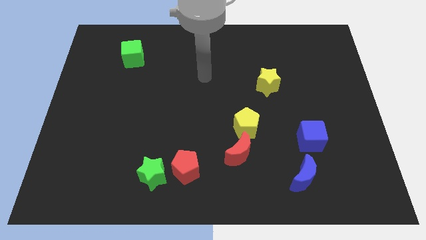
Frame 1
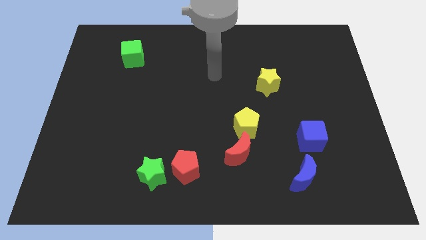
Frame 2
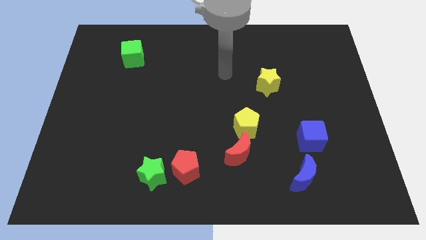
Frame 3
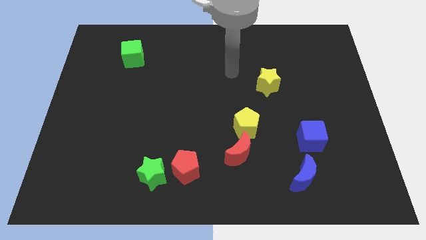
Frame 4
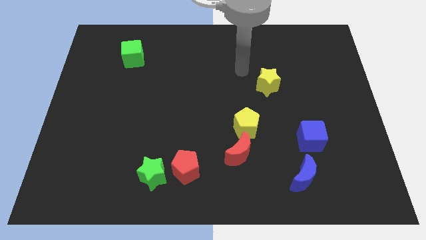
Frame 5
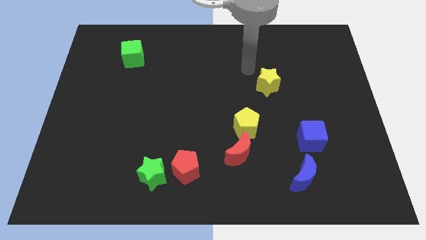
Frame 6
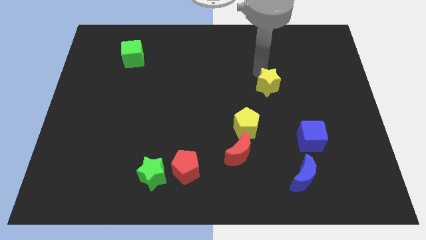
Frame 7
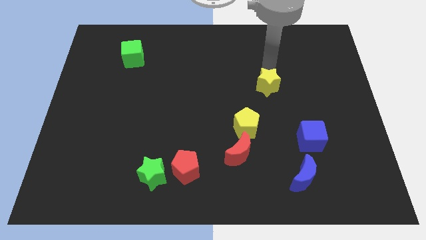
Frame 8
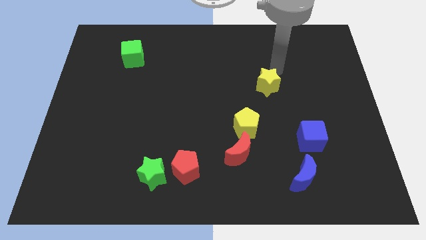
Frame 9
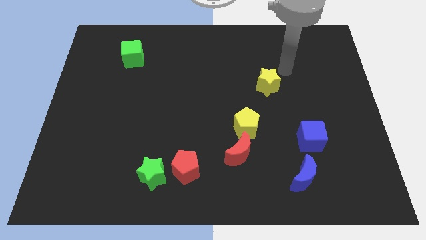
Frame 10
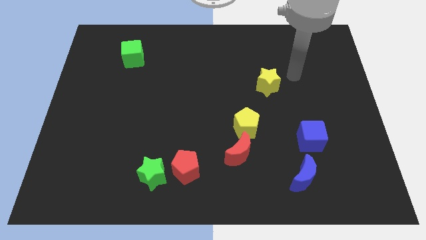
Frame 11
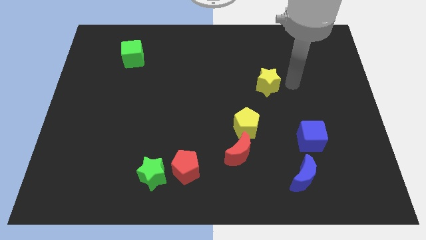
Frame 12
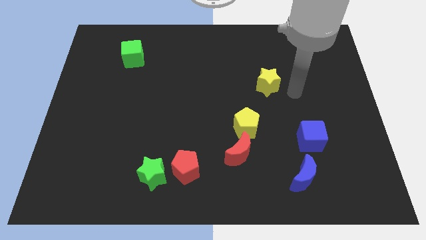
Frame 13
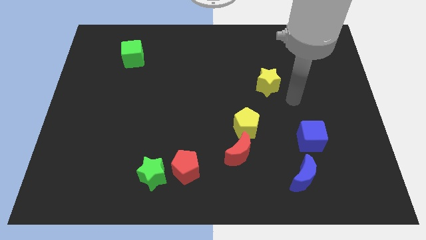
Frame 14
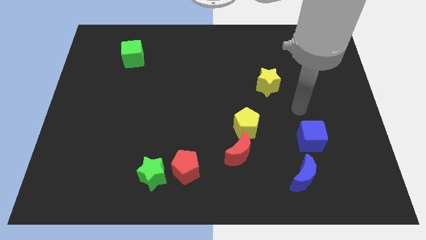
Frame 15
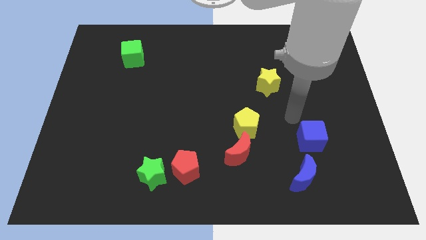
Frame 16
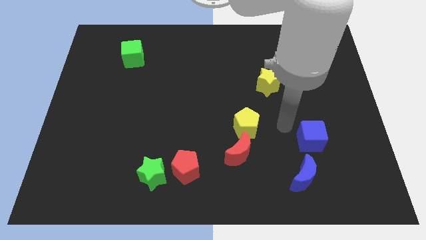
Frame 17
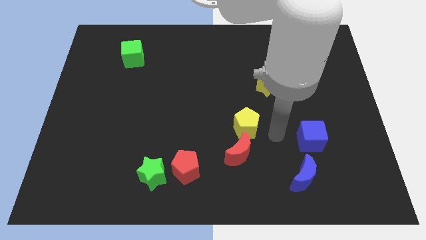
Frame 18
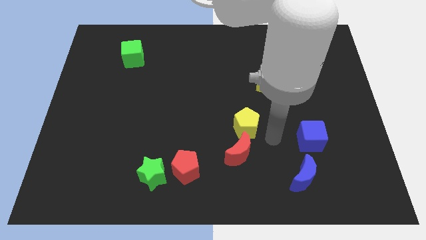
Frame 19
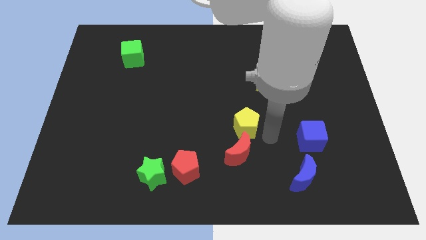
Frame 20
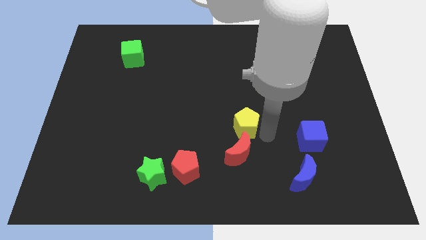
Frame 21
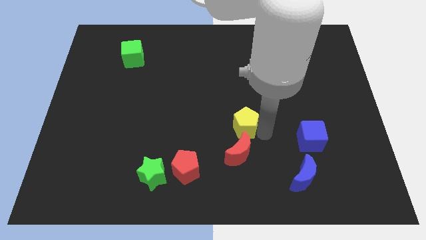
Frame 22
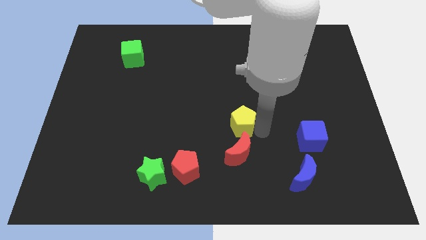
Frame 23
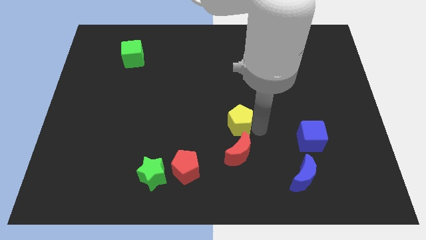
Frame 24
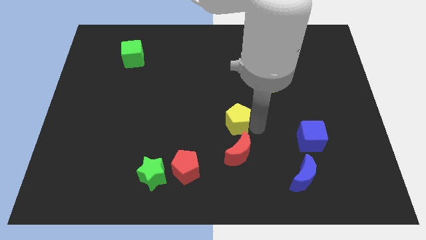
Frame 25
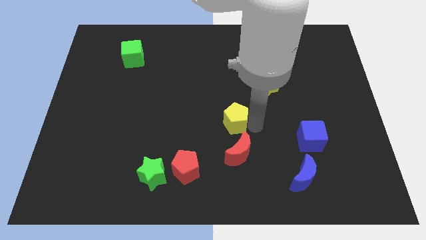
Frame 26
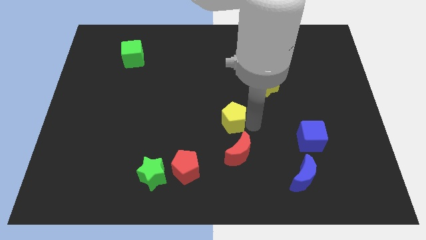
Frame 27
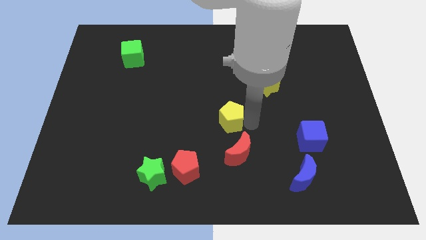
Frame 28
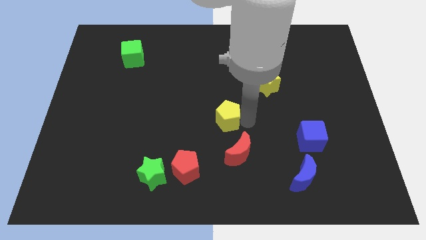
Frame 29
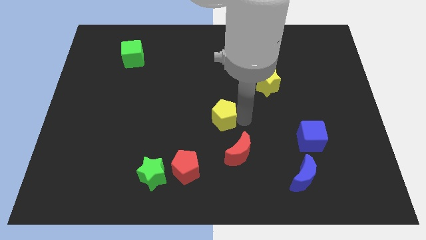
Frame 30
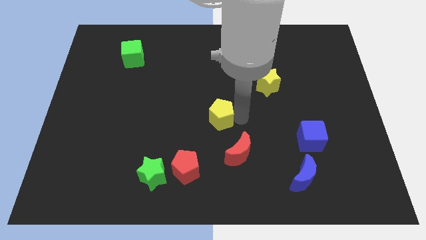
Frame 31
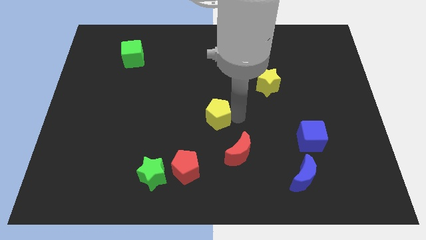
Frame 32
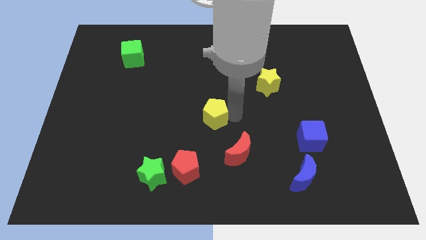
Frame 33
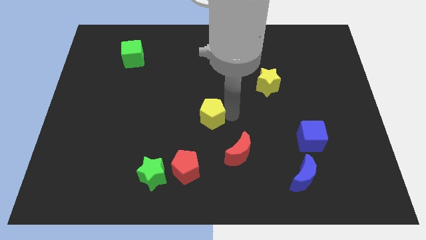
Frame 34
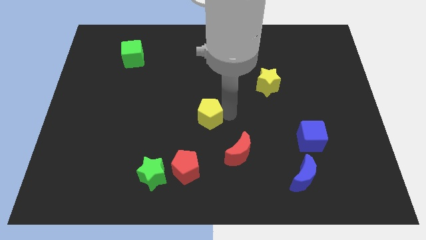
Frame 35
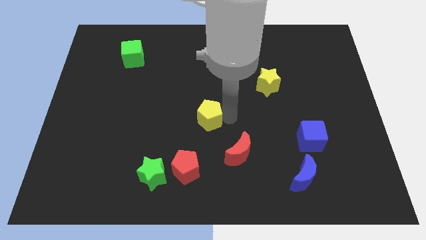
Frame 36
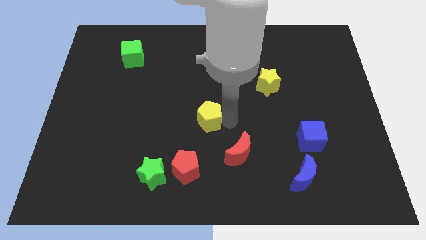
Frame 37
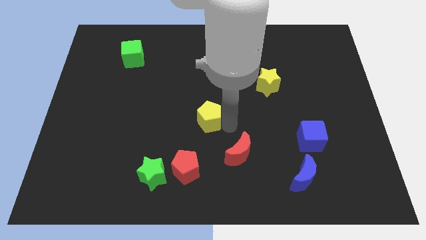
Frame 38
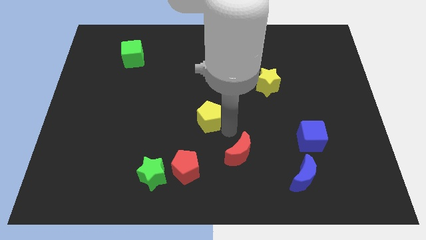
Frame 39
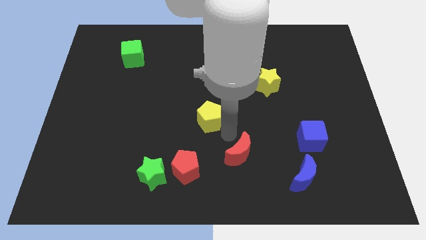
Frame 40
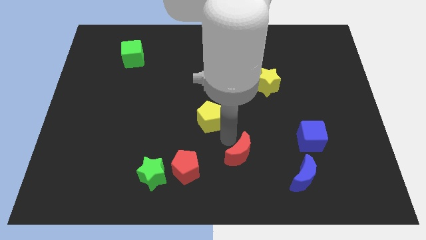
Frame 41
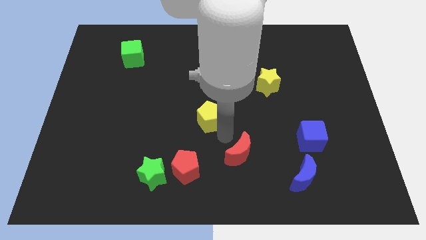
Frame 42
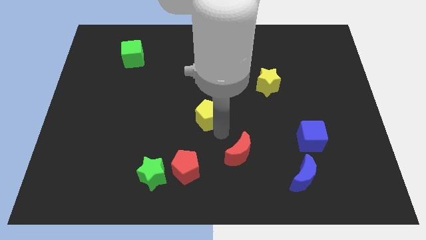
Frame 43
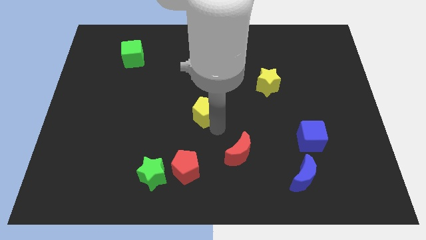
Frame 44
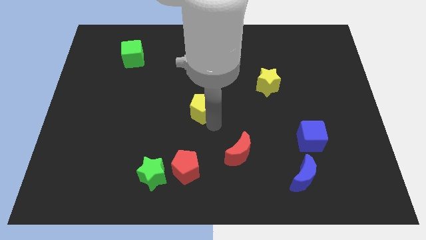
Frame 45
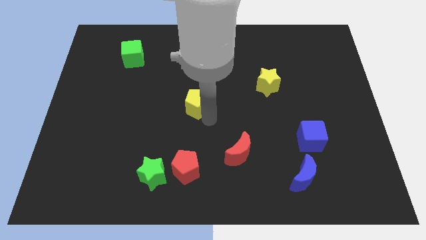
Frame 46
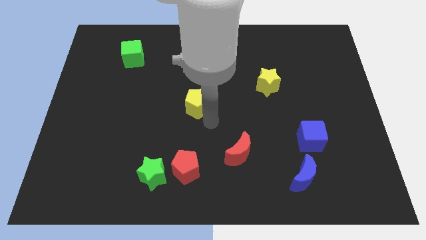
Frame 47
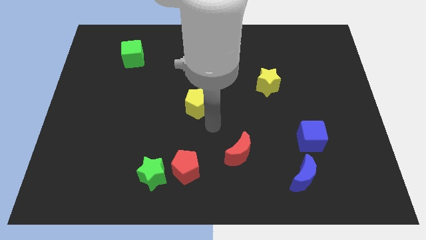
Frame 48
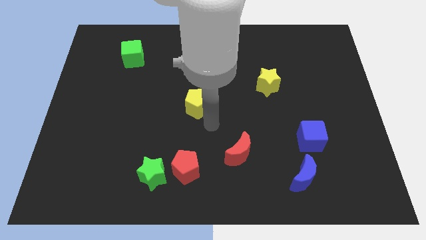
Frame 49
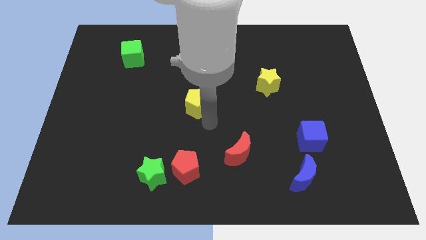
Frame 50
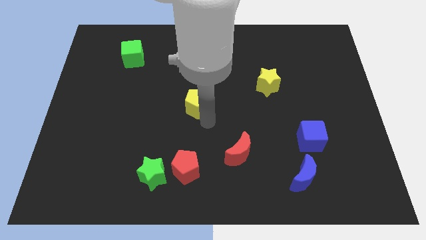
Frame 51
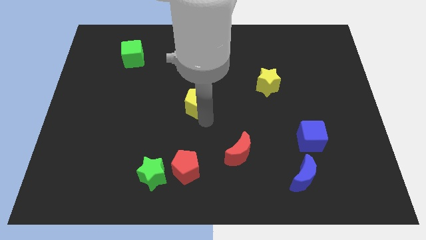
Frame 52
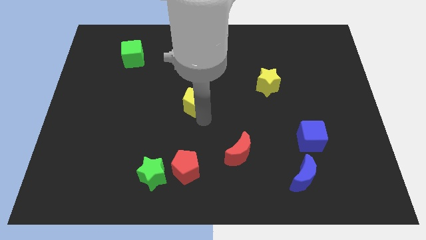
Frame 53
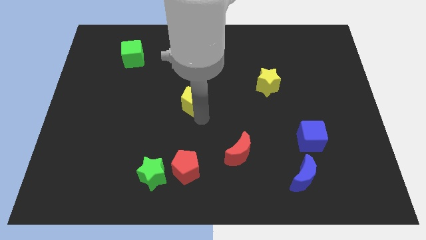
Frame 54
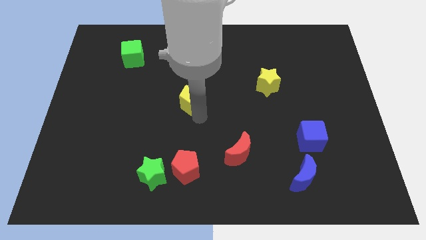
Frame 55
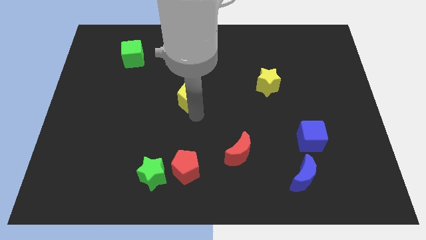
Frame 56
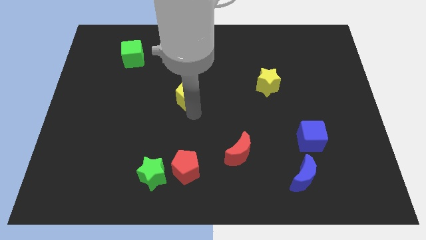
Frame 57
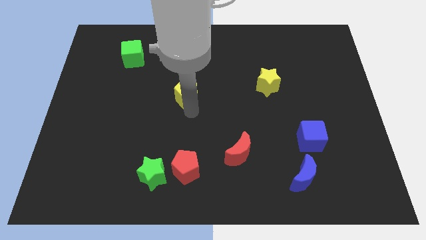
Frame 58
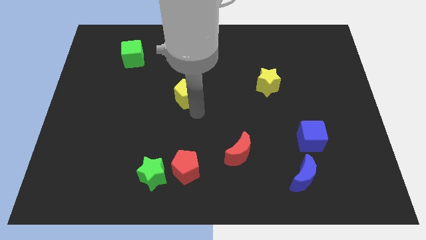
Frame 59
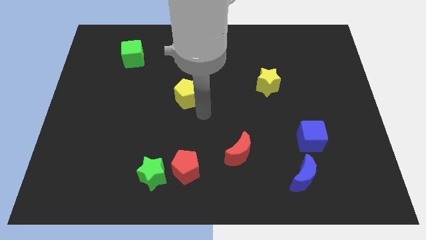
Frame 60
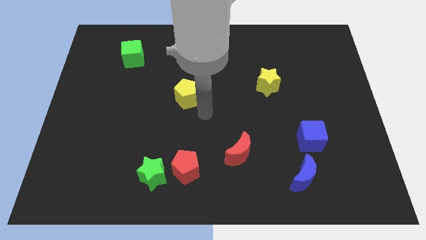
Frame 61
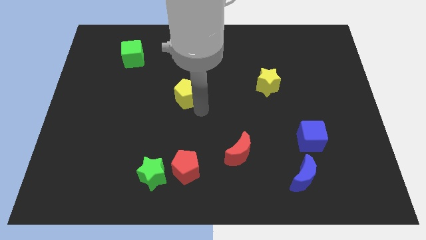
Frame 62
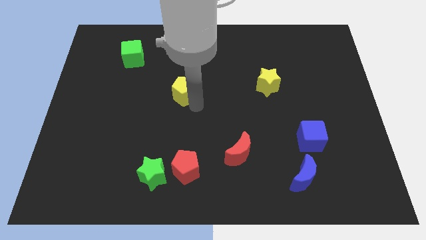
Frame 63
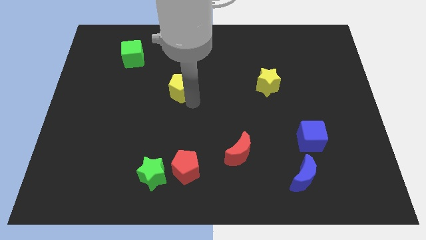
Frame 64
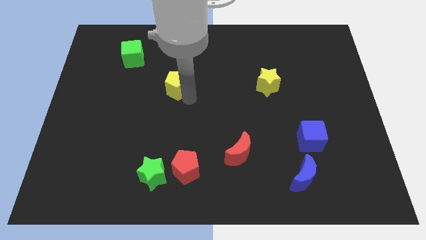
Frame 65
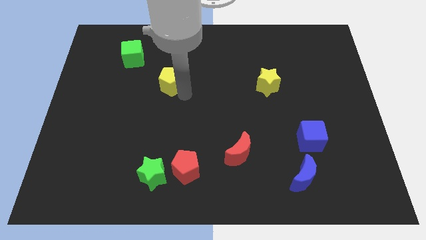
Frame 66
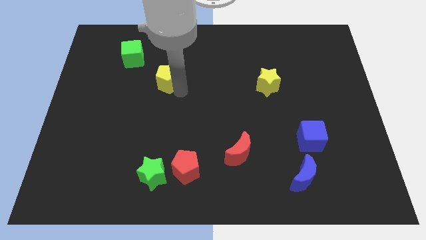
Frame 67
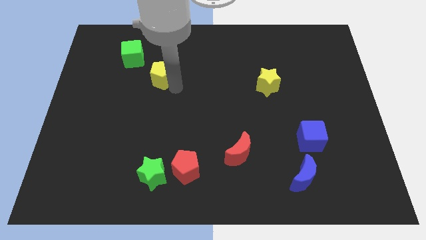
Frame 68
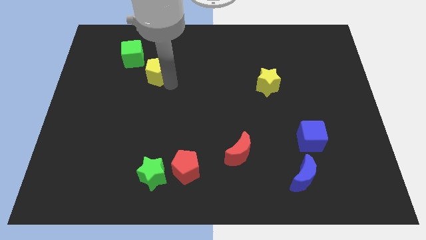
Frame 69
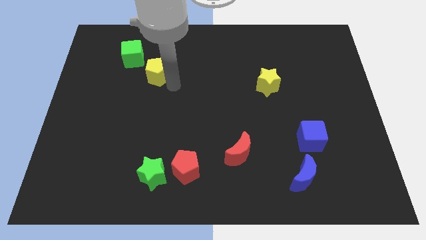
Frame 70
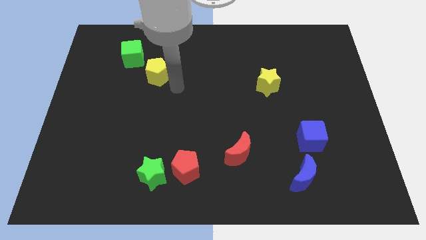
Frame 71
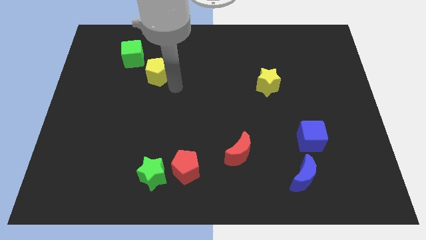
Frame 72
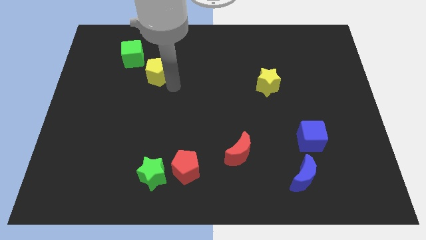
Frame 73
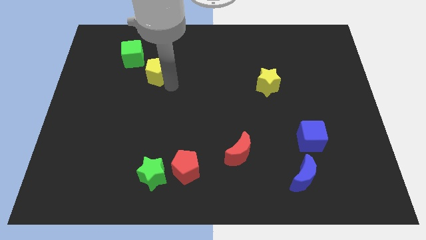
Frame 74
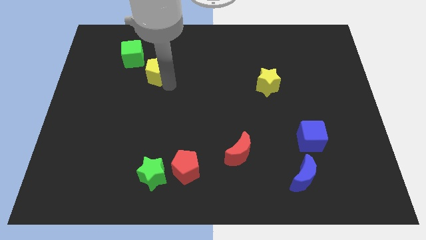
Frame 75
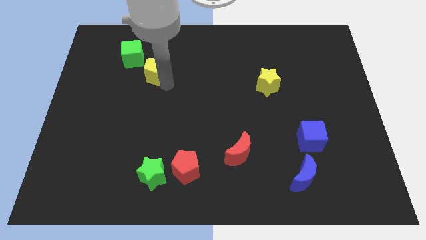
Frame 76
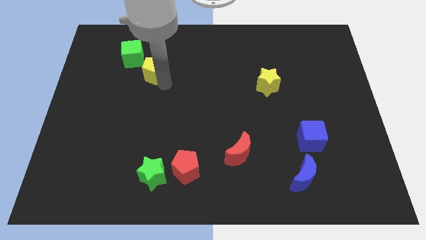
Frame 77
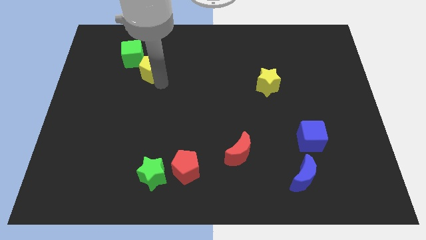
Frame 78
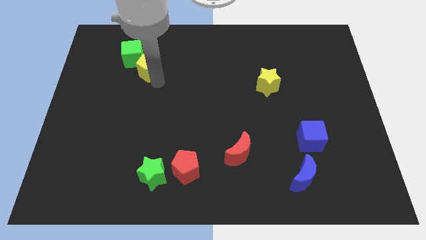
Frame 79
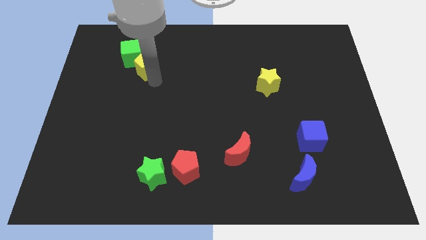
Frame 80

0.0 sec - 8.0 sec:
push the yellow pentagon close to the green cube

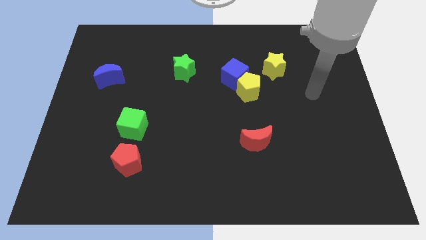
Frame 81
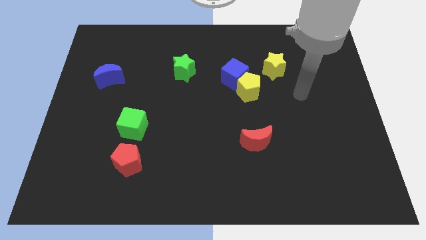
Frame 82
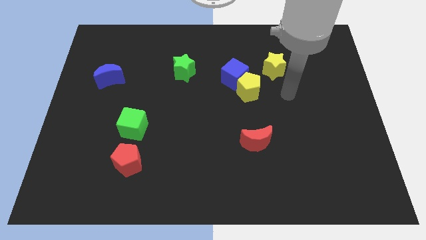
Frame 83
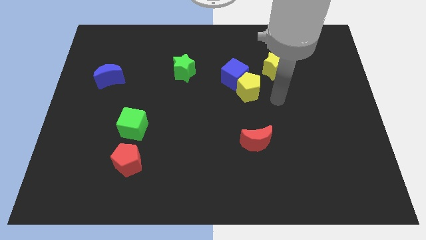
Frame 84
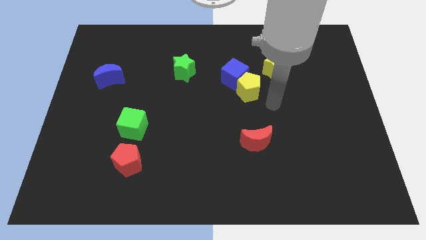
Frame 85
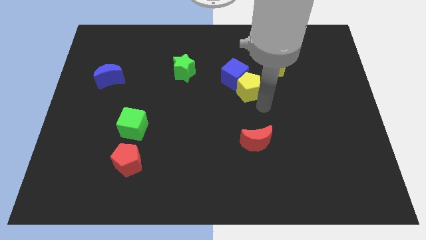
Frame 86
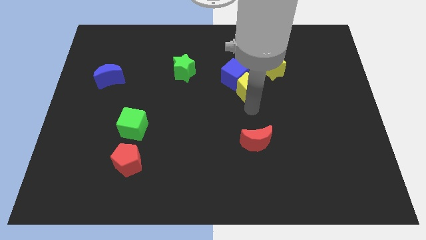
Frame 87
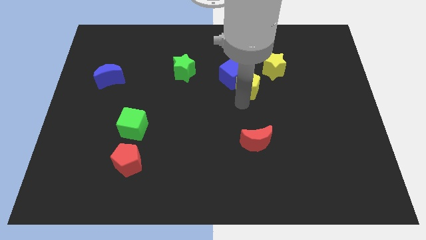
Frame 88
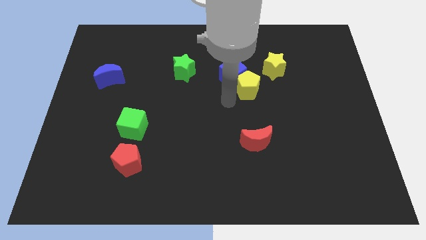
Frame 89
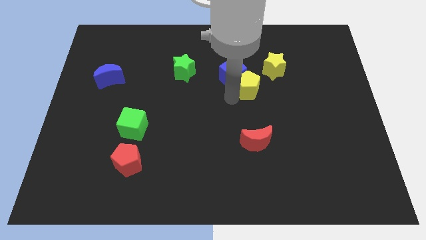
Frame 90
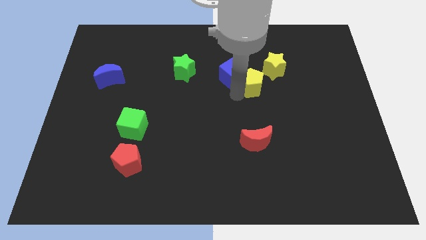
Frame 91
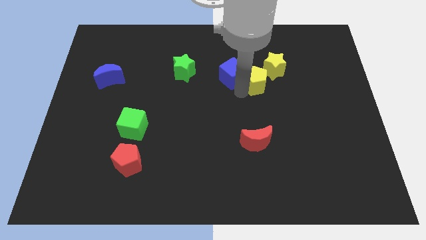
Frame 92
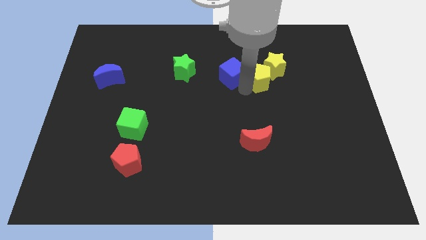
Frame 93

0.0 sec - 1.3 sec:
slide the yellow pentagon to the yellow star
